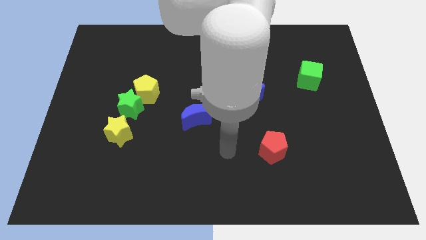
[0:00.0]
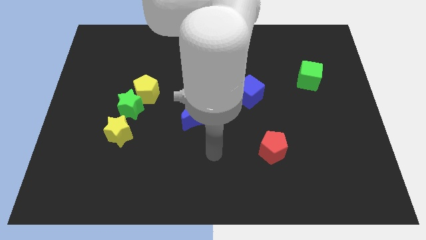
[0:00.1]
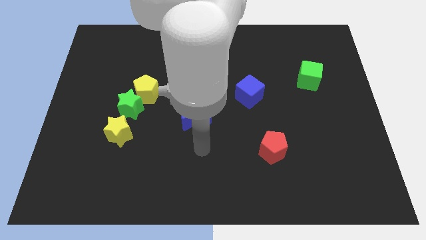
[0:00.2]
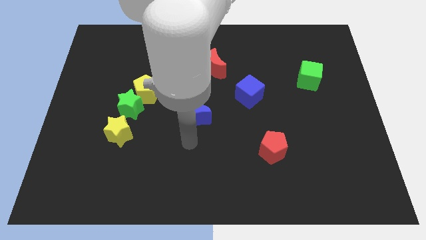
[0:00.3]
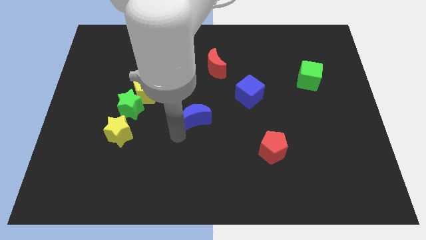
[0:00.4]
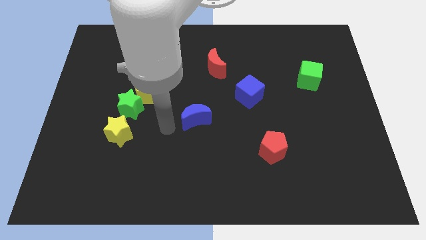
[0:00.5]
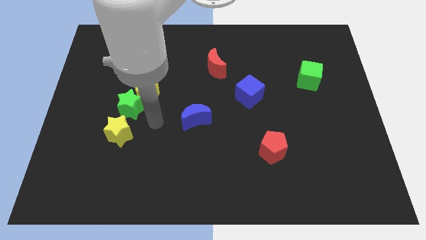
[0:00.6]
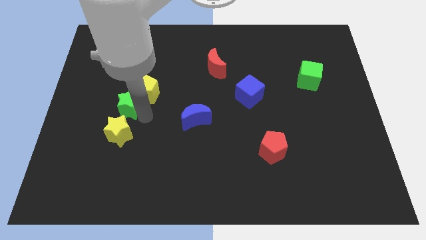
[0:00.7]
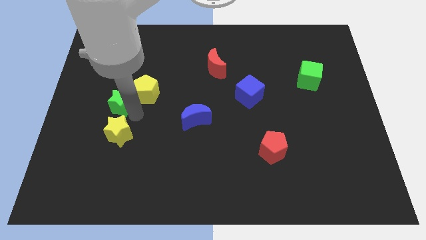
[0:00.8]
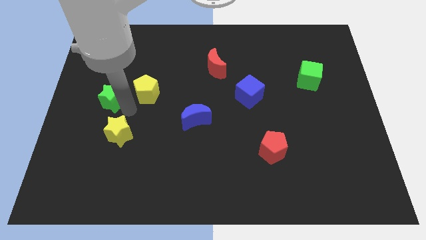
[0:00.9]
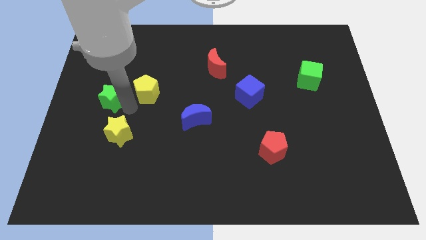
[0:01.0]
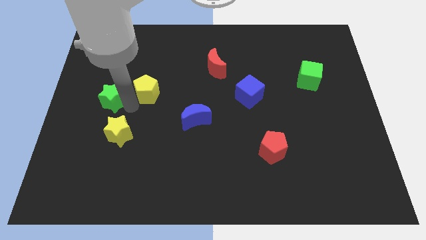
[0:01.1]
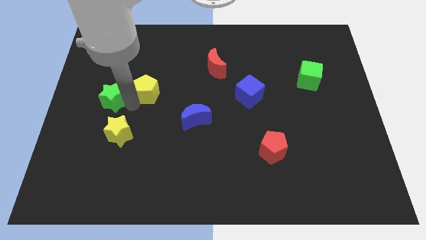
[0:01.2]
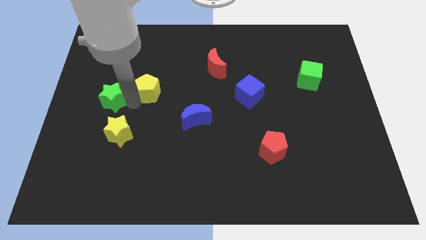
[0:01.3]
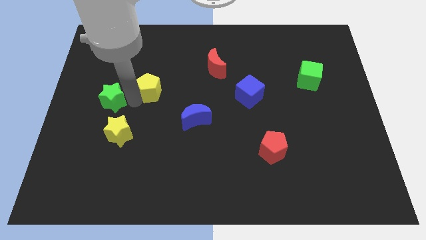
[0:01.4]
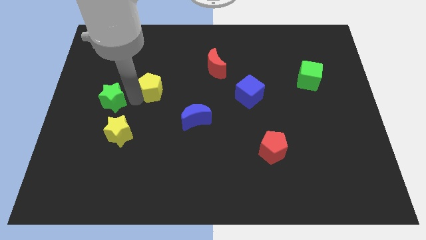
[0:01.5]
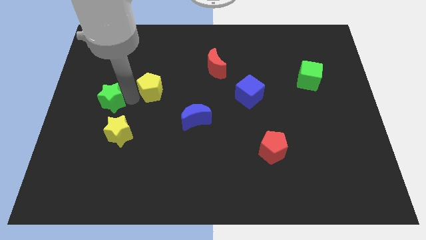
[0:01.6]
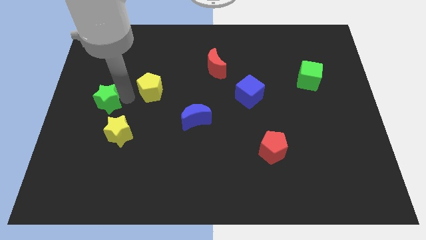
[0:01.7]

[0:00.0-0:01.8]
move the yellow pentagon away from the green star

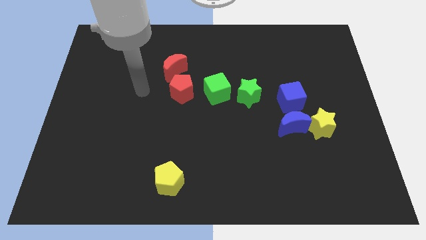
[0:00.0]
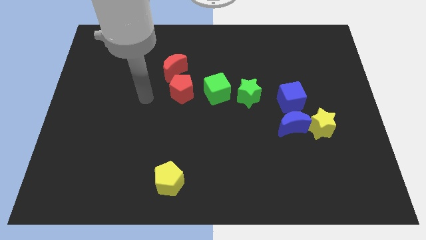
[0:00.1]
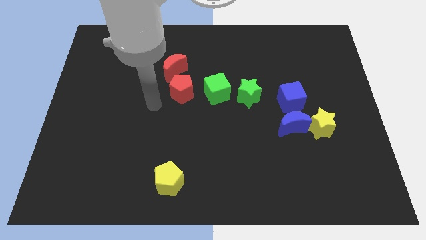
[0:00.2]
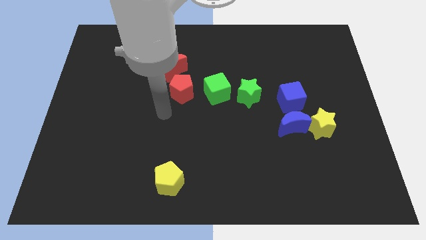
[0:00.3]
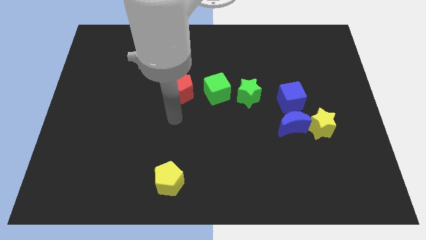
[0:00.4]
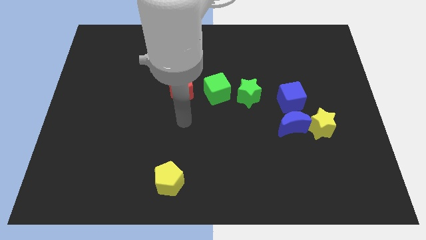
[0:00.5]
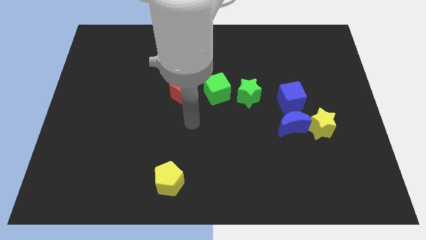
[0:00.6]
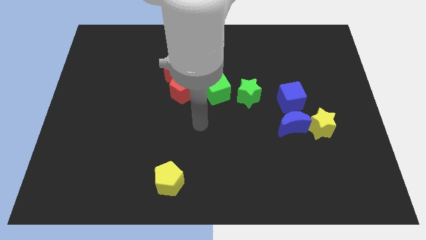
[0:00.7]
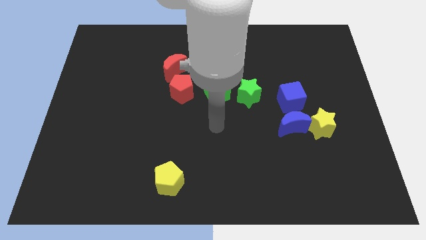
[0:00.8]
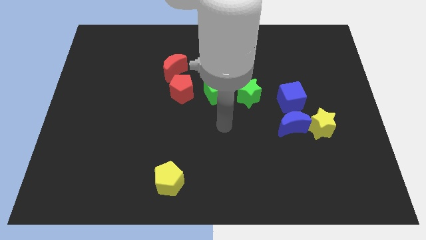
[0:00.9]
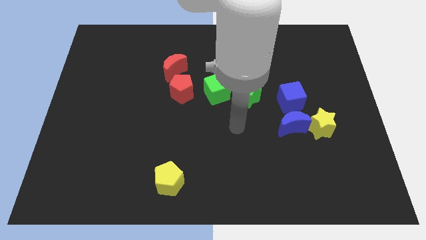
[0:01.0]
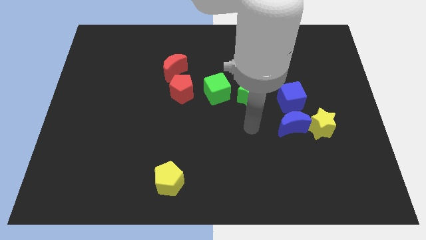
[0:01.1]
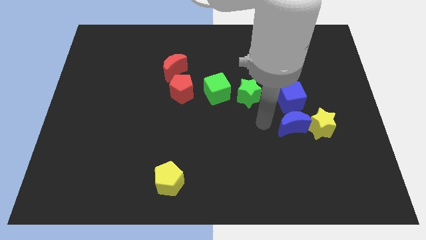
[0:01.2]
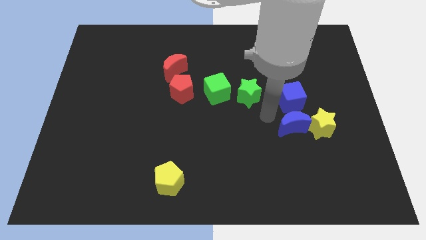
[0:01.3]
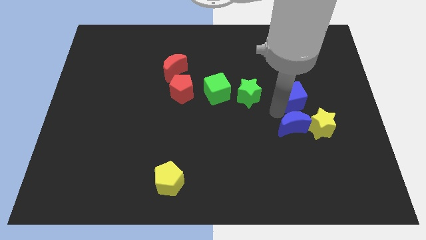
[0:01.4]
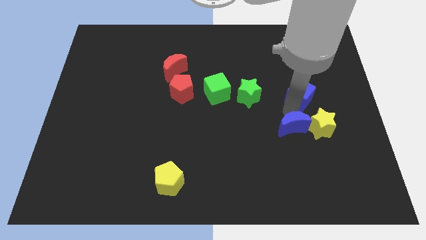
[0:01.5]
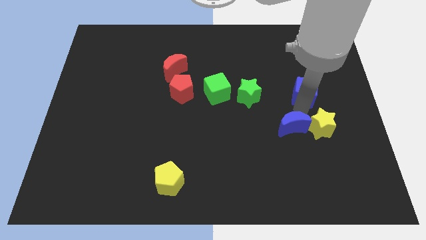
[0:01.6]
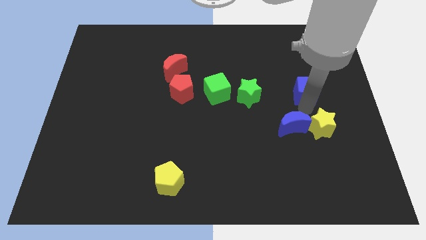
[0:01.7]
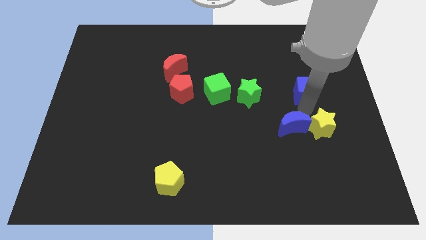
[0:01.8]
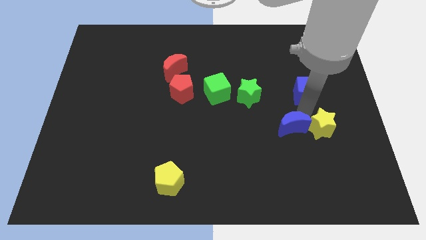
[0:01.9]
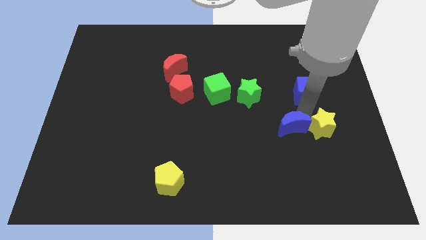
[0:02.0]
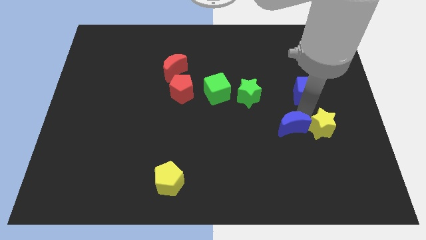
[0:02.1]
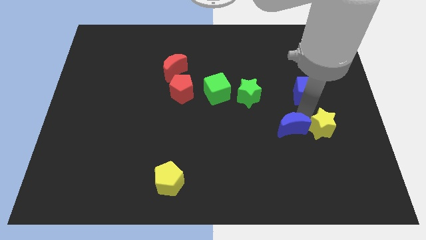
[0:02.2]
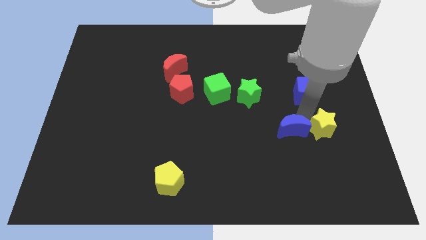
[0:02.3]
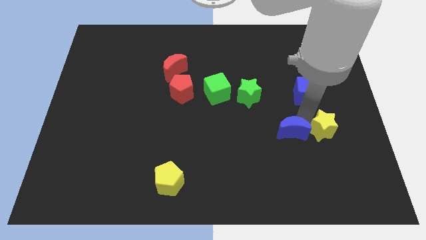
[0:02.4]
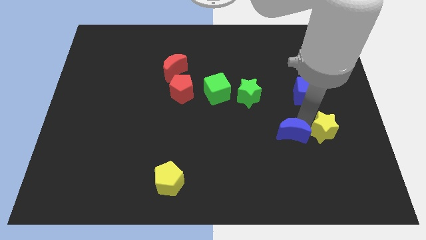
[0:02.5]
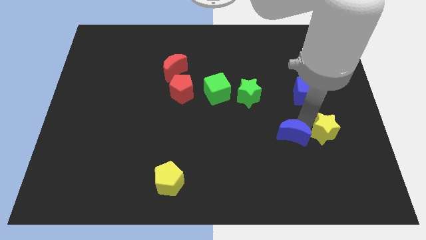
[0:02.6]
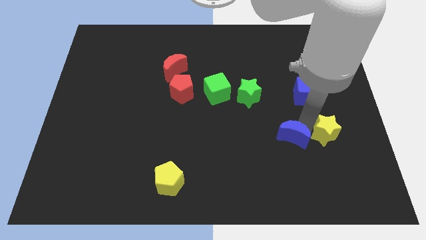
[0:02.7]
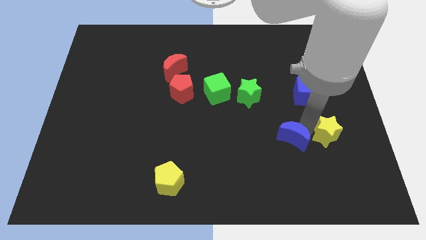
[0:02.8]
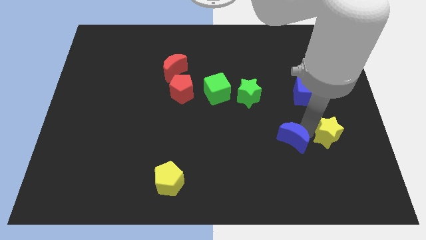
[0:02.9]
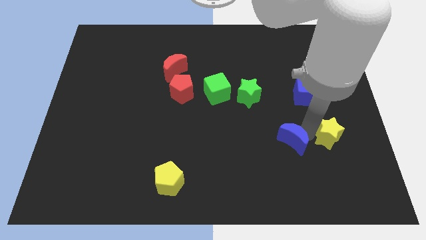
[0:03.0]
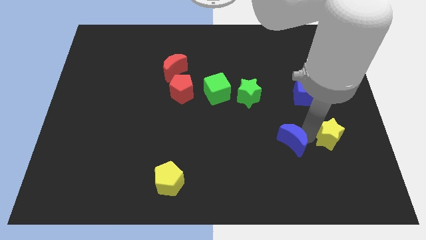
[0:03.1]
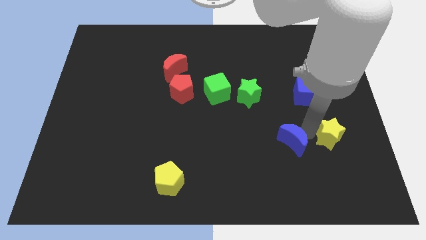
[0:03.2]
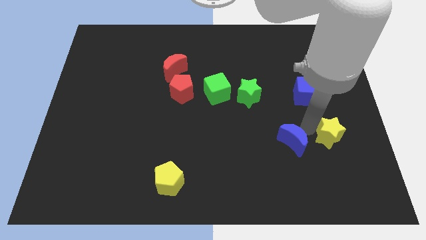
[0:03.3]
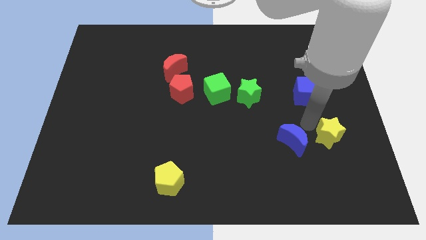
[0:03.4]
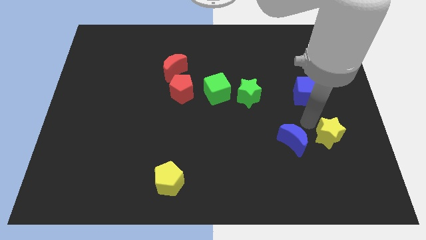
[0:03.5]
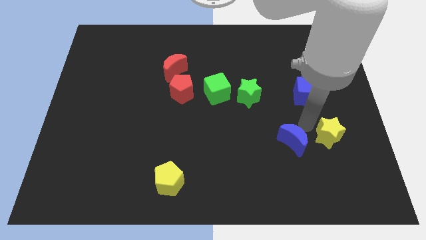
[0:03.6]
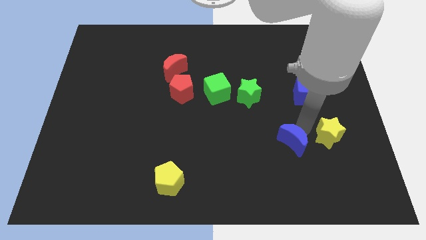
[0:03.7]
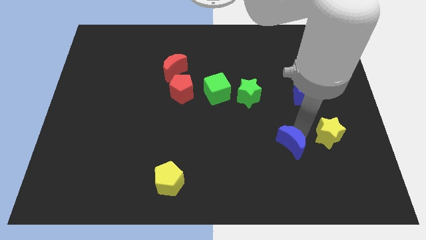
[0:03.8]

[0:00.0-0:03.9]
pull the blue moon apart from the yellow star and blue cube

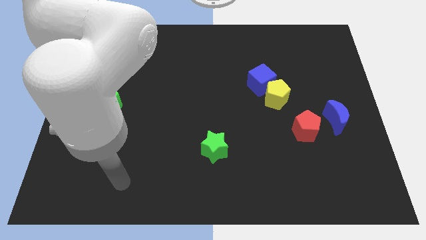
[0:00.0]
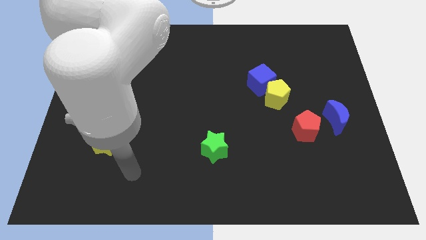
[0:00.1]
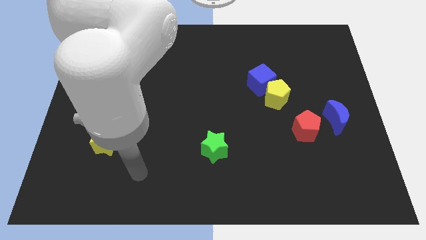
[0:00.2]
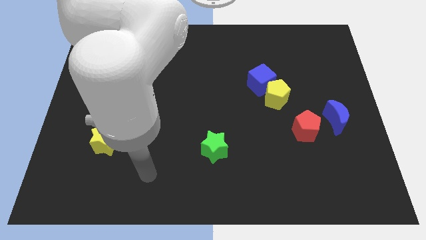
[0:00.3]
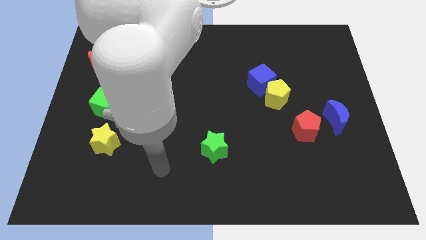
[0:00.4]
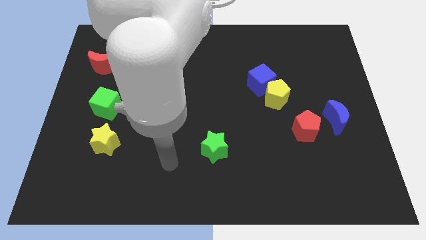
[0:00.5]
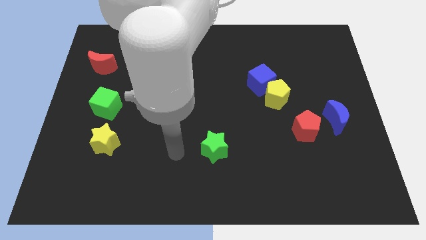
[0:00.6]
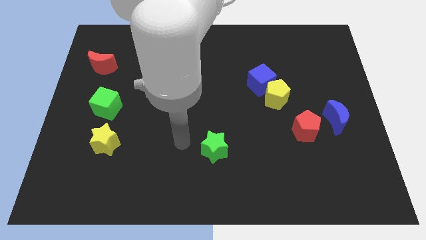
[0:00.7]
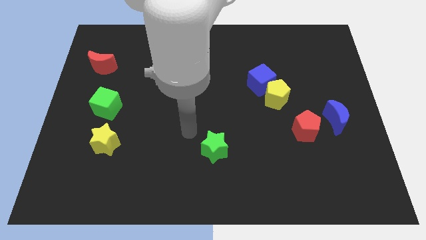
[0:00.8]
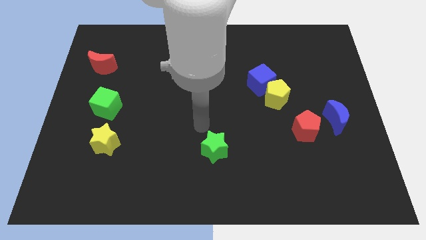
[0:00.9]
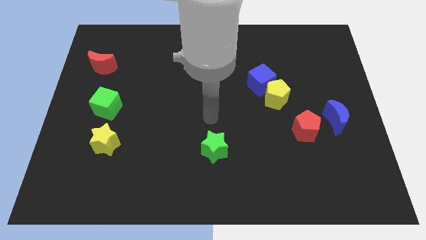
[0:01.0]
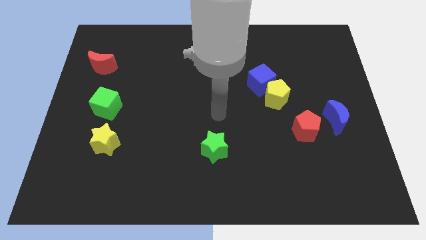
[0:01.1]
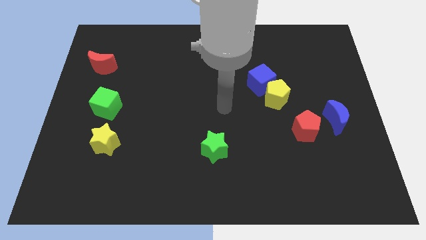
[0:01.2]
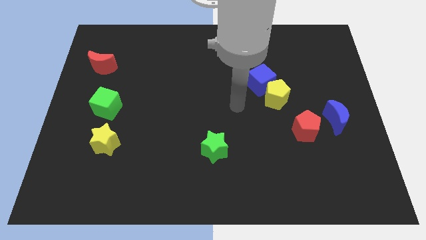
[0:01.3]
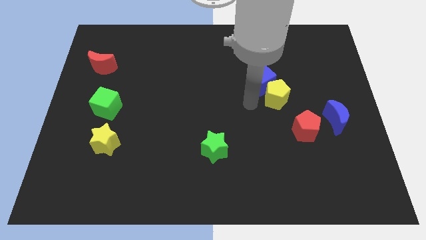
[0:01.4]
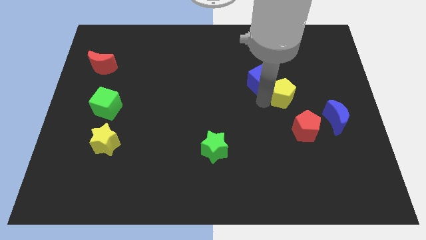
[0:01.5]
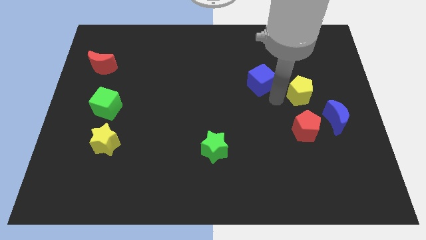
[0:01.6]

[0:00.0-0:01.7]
pull the blue cube apart from the yellow pentagon

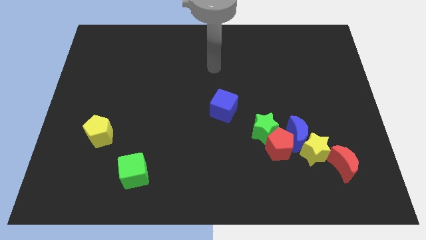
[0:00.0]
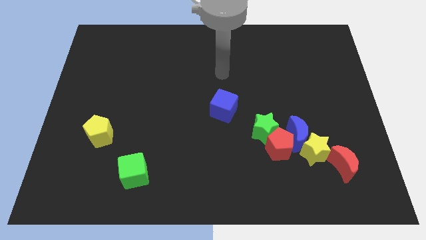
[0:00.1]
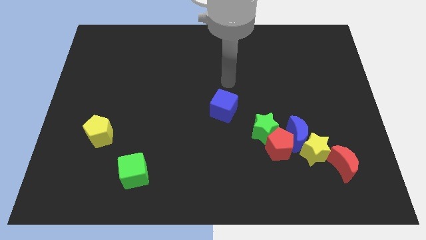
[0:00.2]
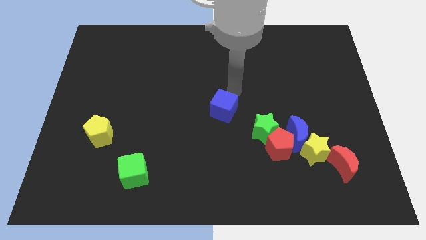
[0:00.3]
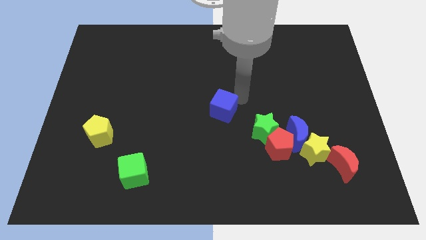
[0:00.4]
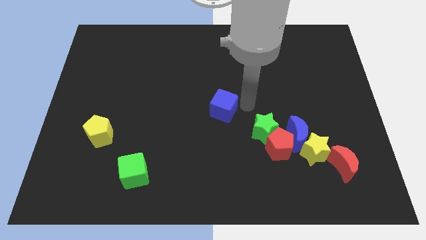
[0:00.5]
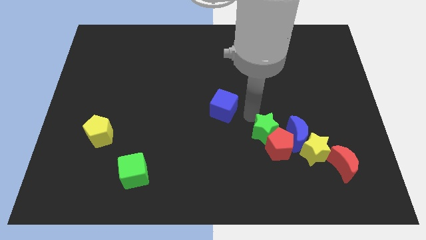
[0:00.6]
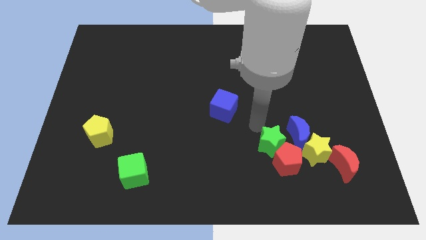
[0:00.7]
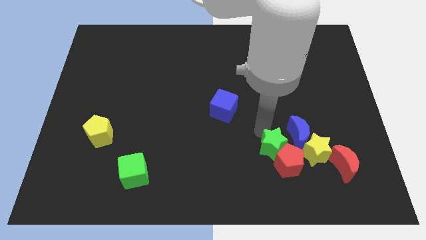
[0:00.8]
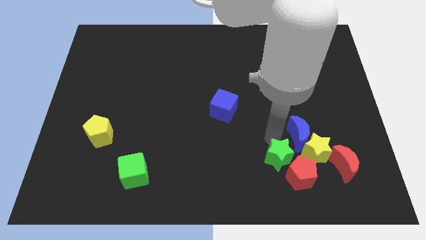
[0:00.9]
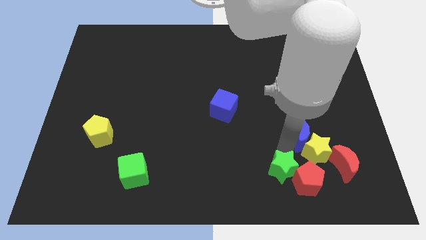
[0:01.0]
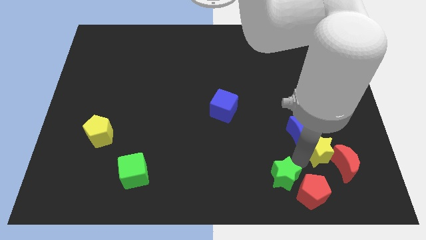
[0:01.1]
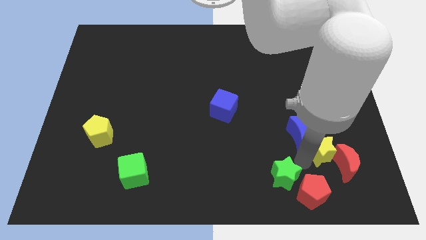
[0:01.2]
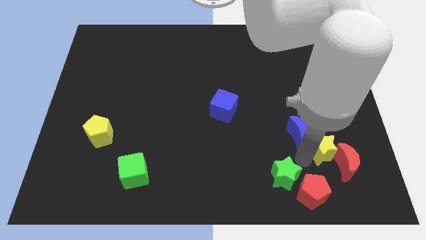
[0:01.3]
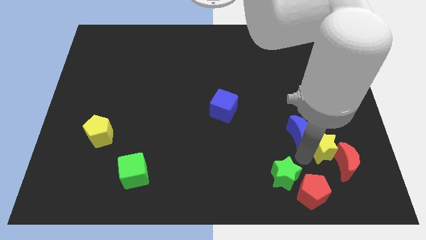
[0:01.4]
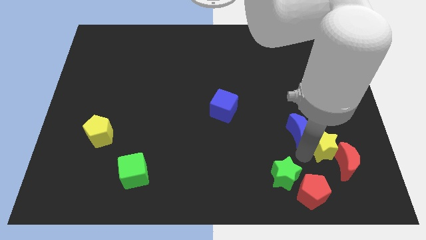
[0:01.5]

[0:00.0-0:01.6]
separate the blue moon from the yellow star, red pentagon, and green star

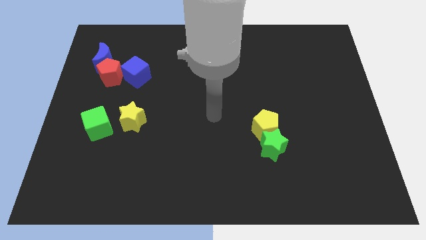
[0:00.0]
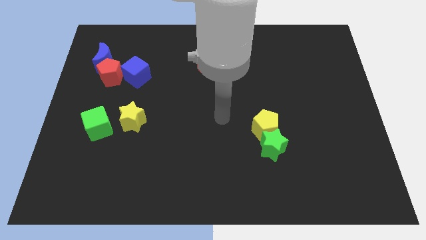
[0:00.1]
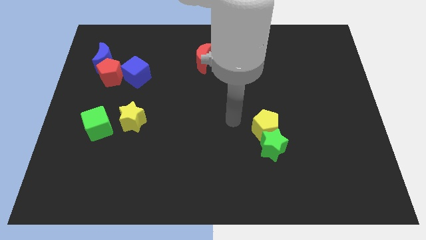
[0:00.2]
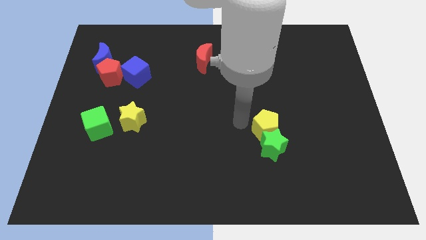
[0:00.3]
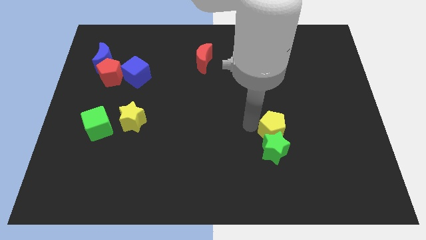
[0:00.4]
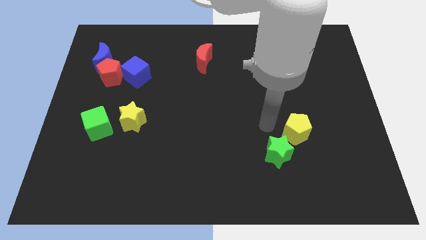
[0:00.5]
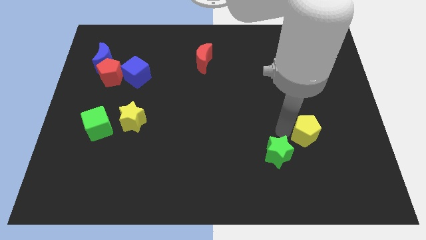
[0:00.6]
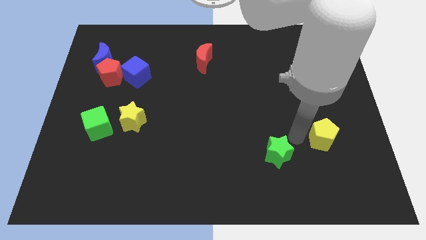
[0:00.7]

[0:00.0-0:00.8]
separate the green star from the yellow pentagon
